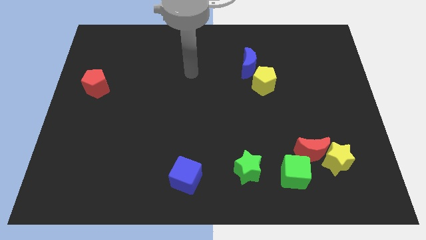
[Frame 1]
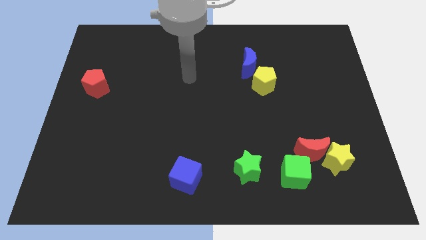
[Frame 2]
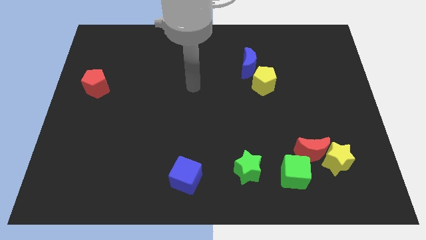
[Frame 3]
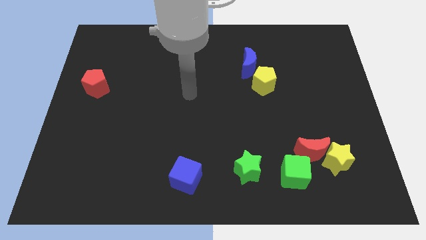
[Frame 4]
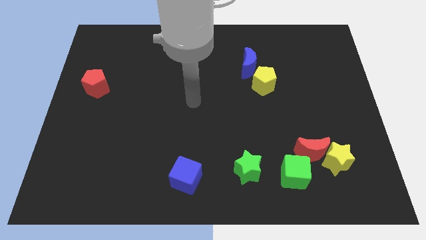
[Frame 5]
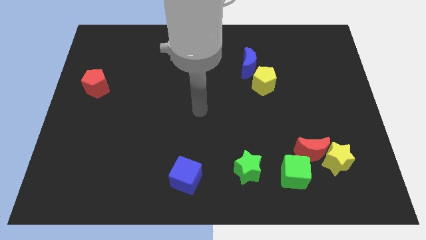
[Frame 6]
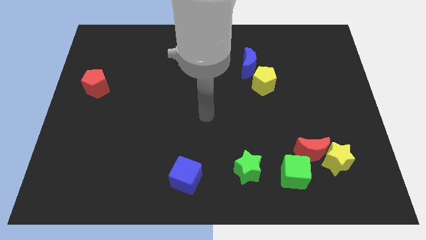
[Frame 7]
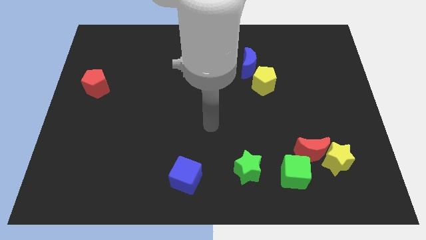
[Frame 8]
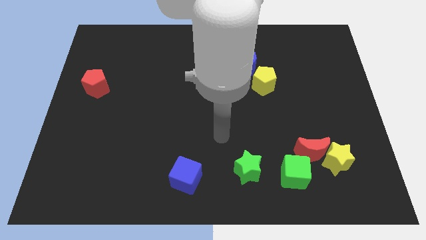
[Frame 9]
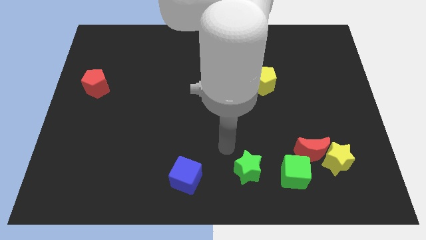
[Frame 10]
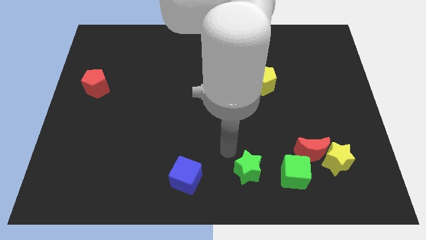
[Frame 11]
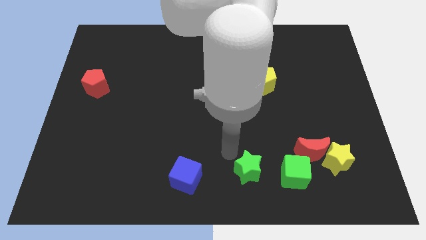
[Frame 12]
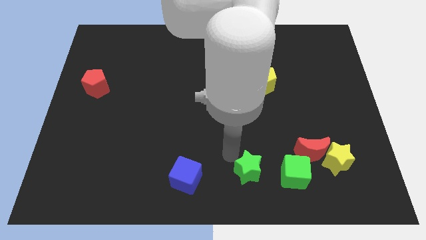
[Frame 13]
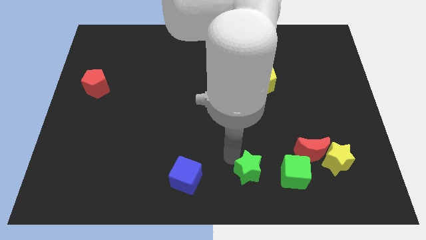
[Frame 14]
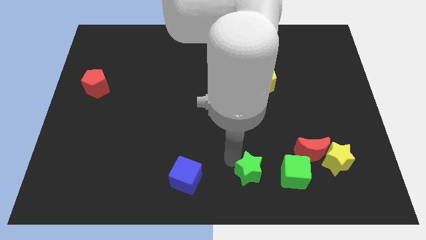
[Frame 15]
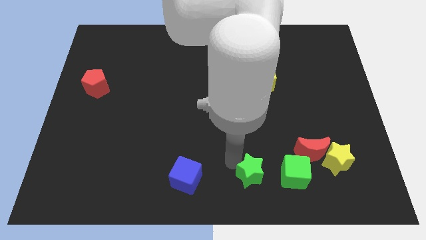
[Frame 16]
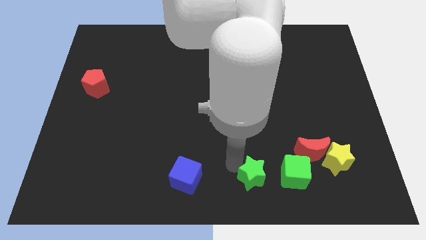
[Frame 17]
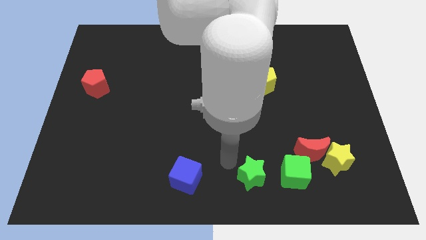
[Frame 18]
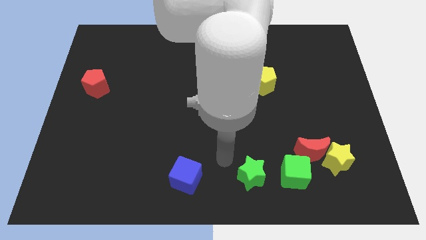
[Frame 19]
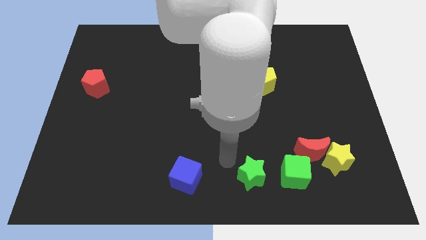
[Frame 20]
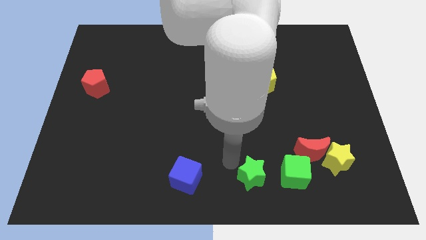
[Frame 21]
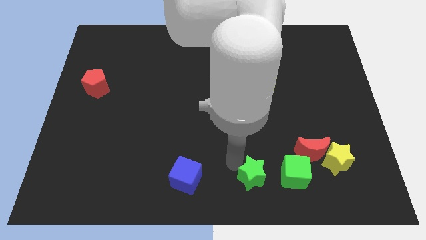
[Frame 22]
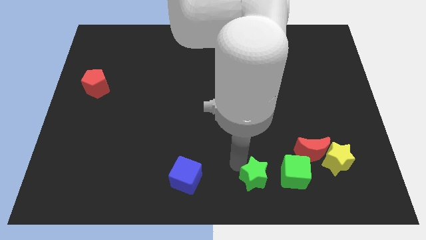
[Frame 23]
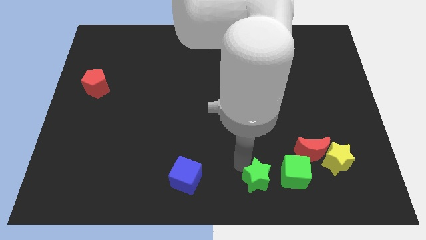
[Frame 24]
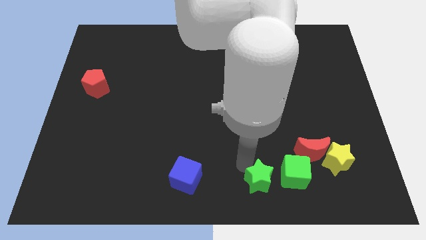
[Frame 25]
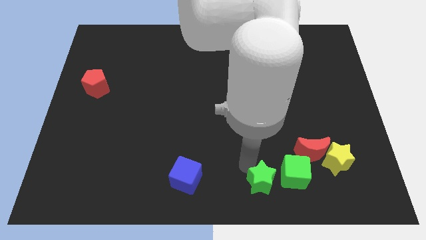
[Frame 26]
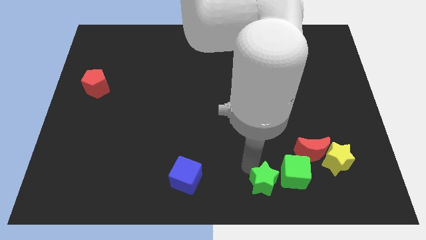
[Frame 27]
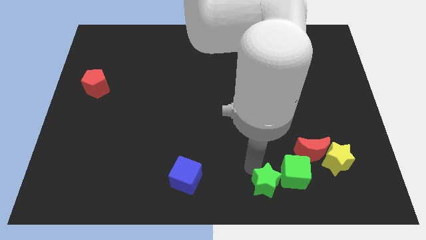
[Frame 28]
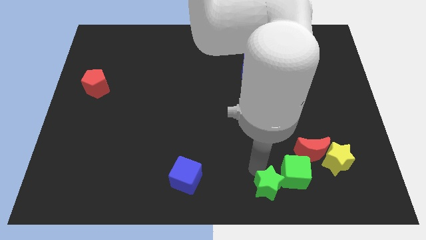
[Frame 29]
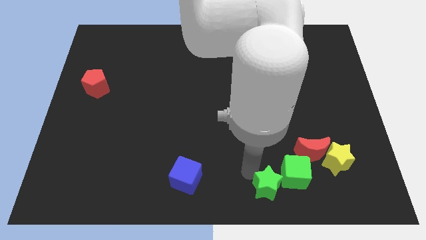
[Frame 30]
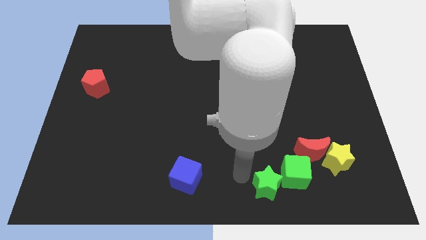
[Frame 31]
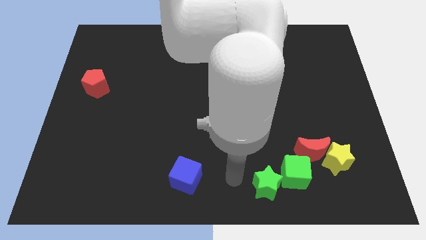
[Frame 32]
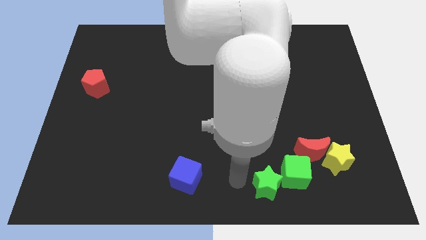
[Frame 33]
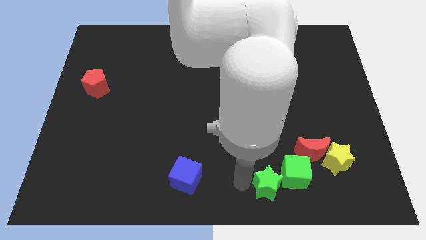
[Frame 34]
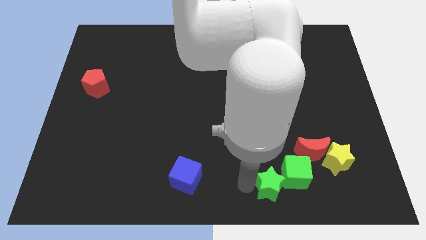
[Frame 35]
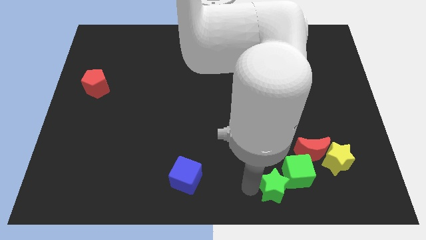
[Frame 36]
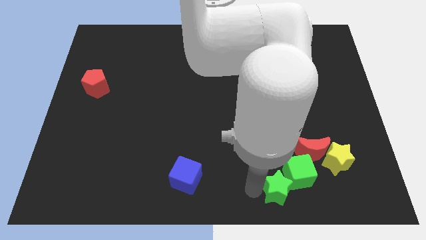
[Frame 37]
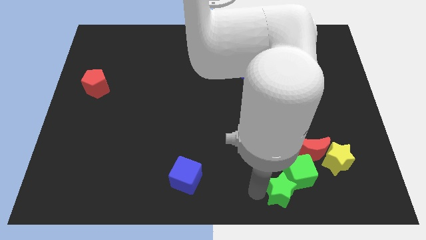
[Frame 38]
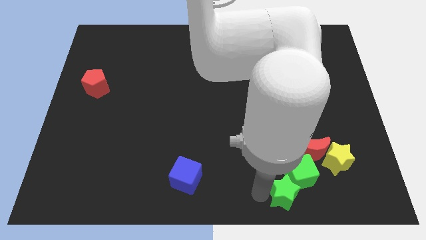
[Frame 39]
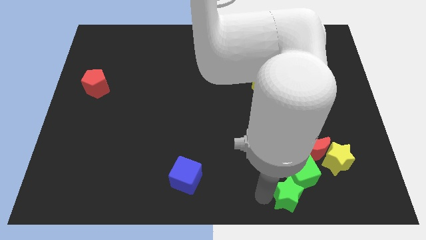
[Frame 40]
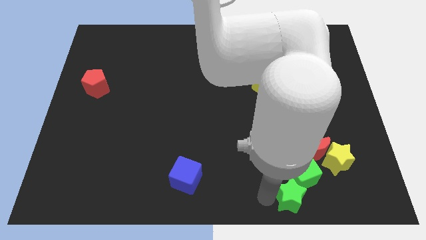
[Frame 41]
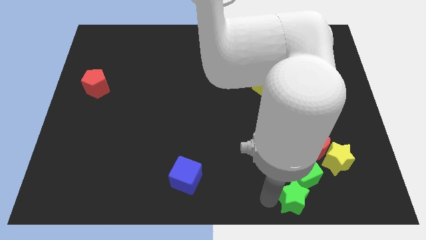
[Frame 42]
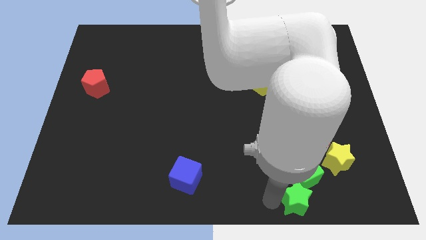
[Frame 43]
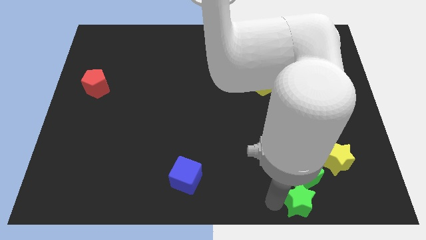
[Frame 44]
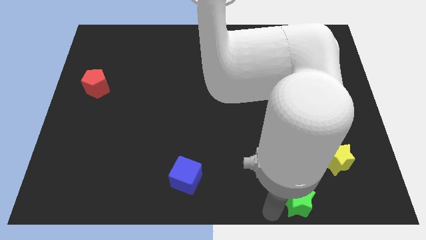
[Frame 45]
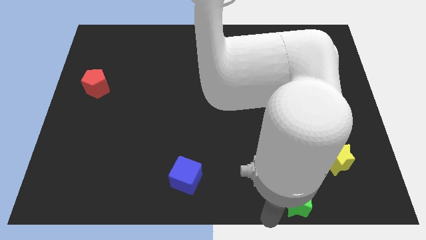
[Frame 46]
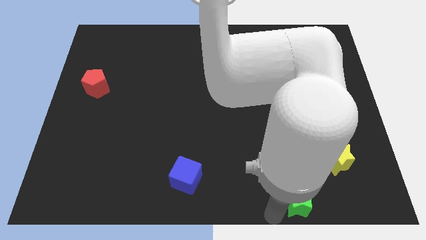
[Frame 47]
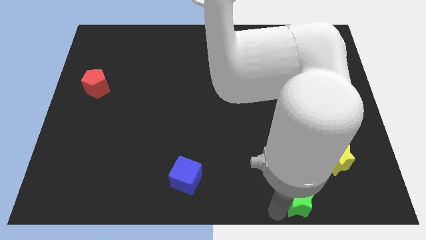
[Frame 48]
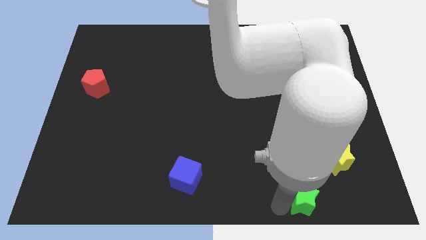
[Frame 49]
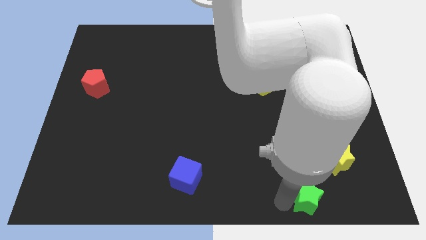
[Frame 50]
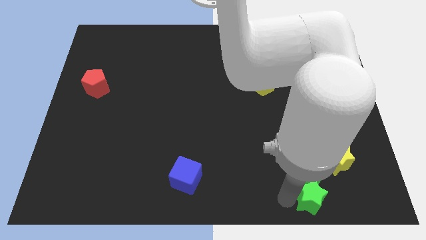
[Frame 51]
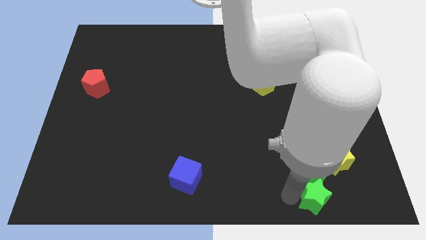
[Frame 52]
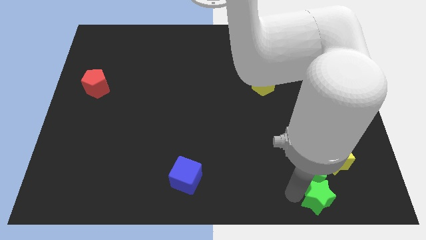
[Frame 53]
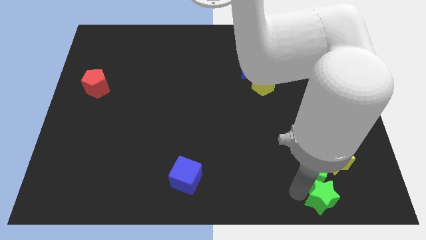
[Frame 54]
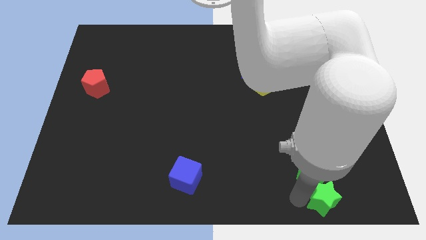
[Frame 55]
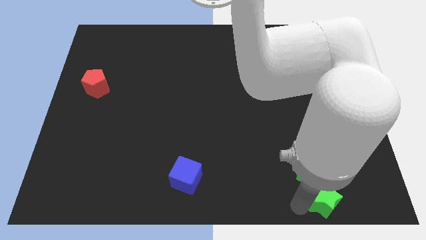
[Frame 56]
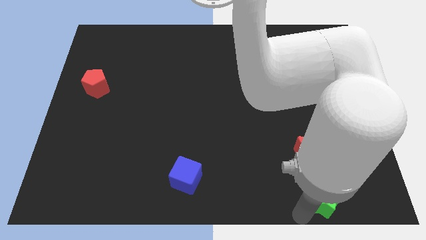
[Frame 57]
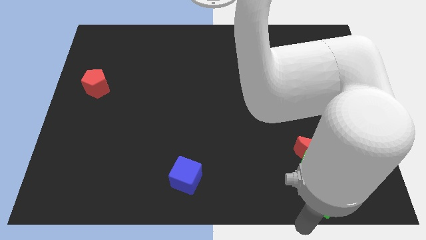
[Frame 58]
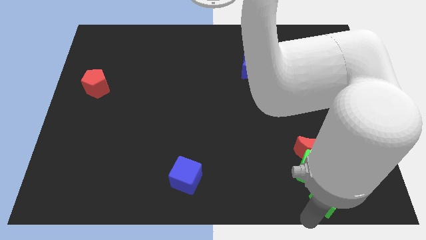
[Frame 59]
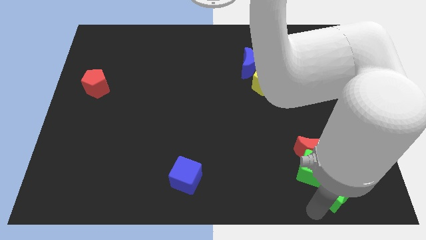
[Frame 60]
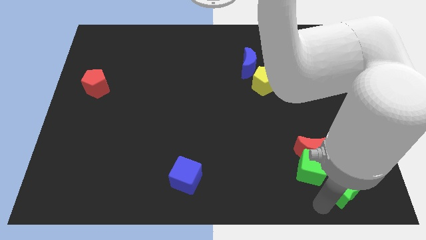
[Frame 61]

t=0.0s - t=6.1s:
slide the green star diagonally down and to the right of the red moon

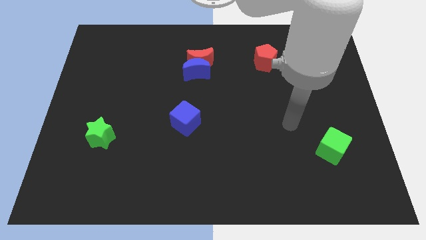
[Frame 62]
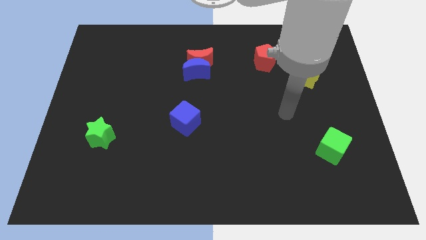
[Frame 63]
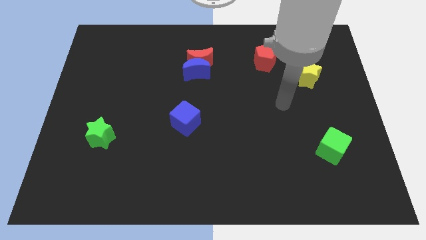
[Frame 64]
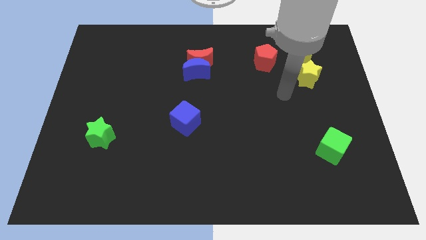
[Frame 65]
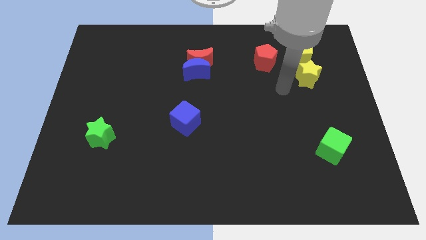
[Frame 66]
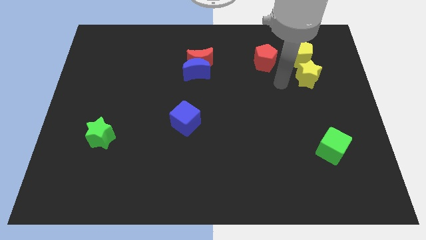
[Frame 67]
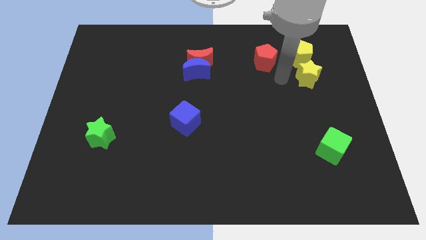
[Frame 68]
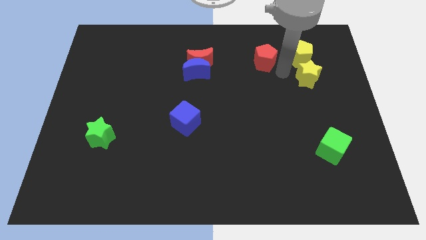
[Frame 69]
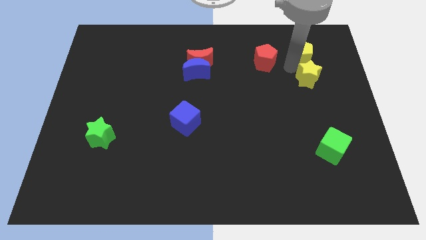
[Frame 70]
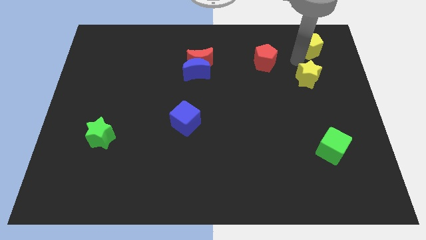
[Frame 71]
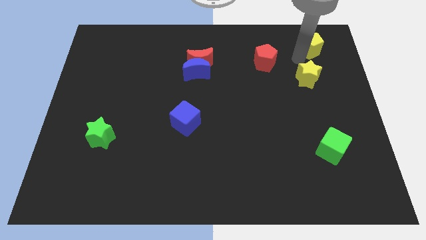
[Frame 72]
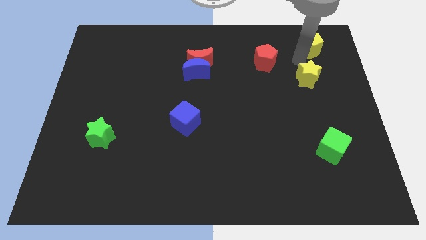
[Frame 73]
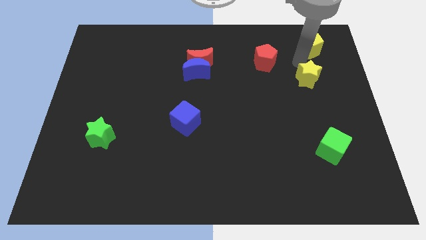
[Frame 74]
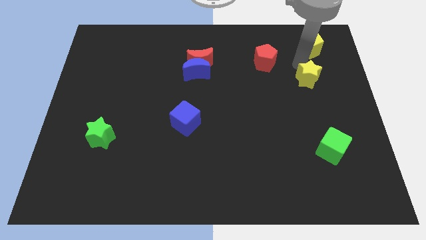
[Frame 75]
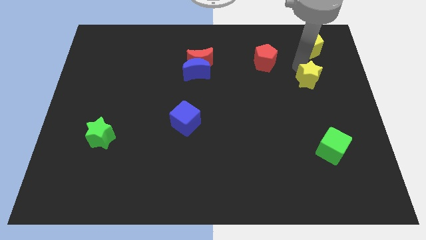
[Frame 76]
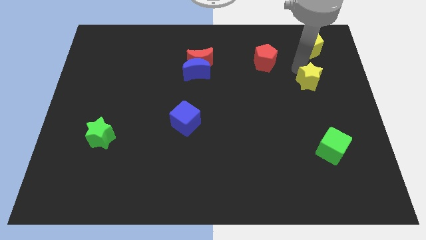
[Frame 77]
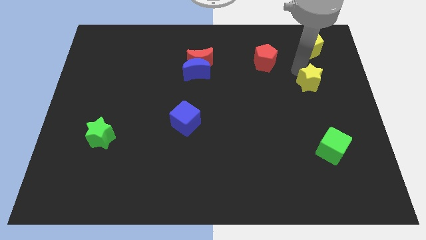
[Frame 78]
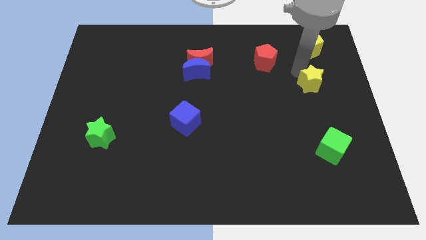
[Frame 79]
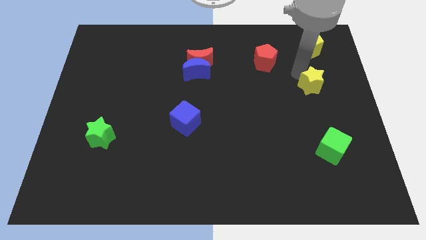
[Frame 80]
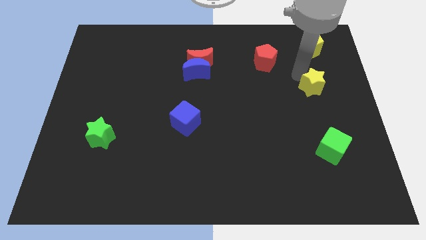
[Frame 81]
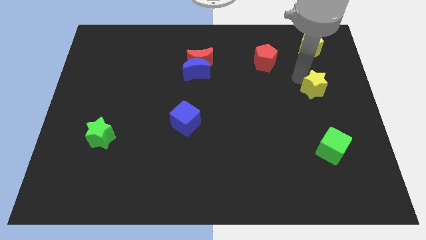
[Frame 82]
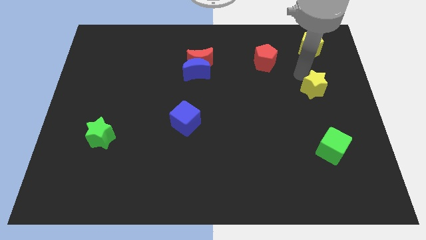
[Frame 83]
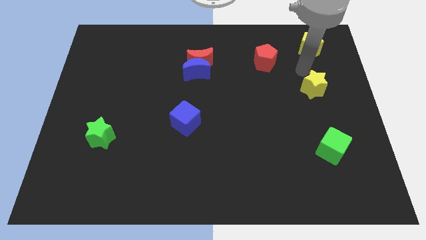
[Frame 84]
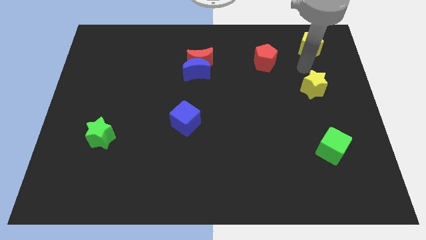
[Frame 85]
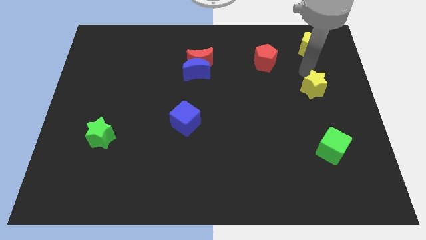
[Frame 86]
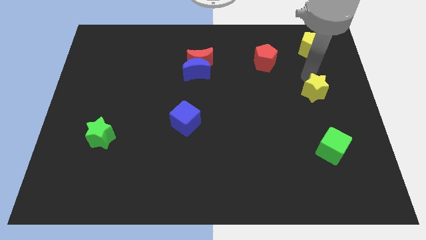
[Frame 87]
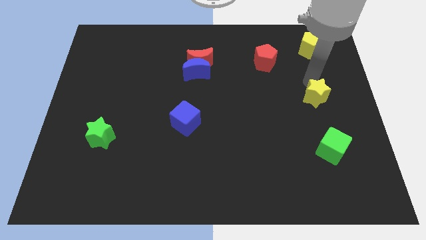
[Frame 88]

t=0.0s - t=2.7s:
push the yellow star to the top of the green cube
